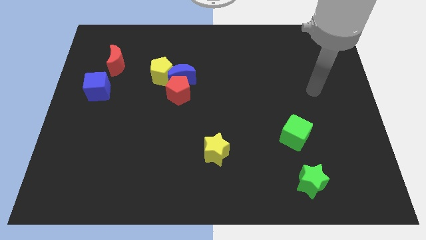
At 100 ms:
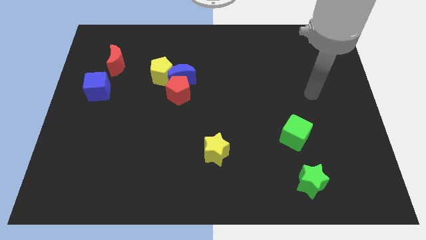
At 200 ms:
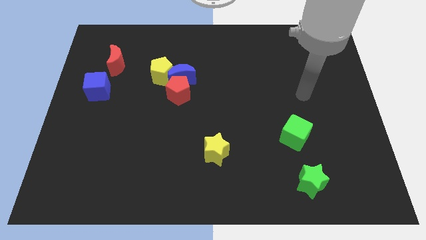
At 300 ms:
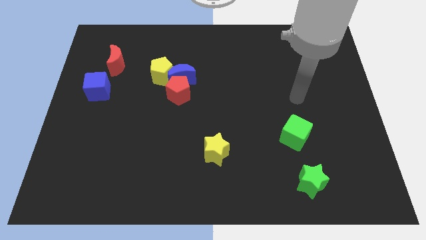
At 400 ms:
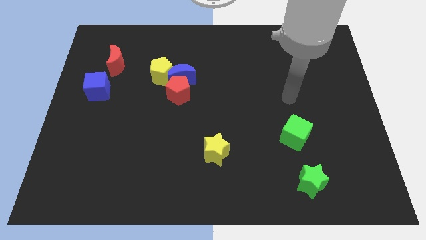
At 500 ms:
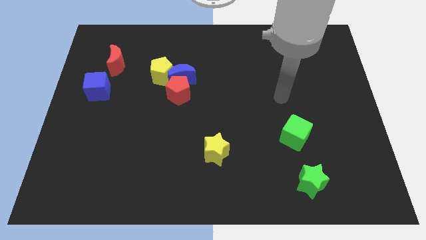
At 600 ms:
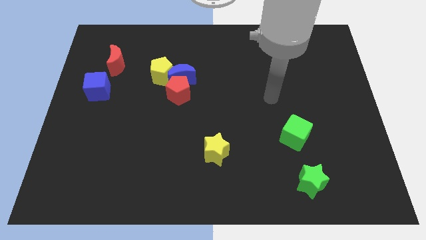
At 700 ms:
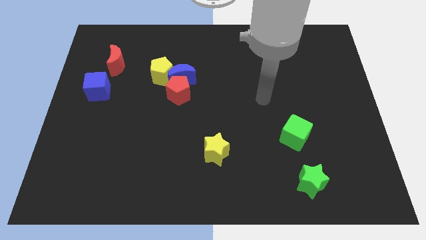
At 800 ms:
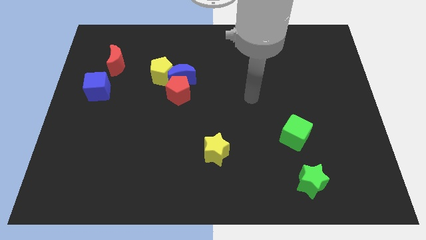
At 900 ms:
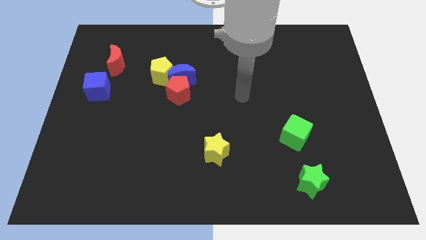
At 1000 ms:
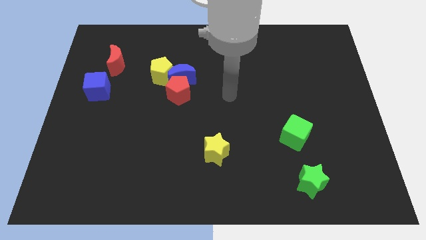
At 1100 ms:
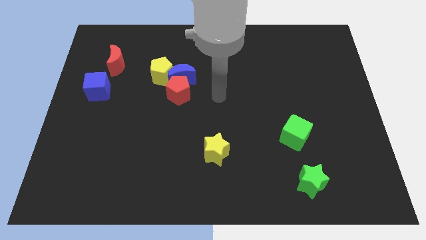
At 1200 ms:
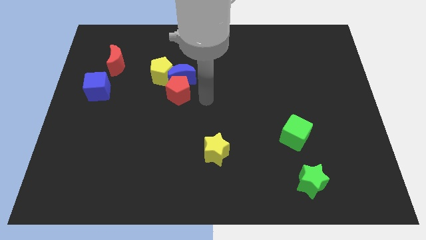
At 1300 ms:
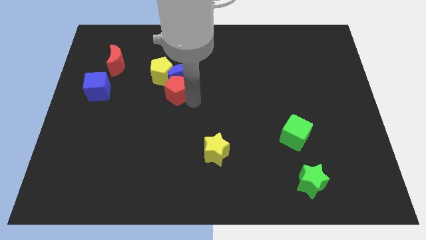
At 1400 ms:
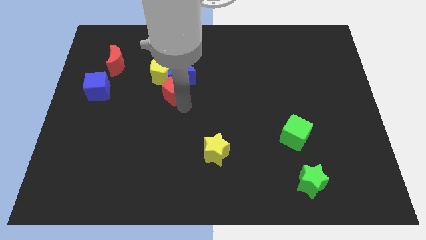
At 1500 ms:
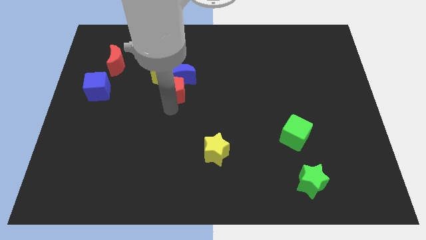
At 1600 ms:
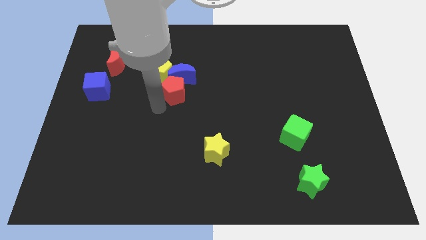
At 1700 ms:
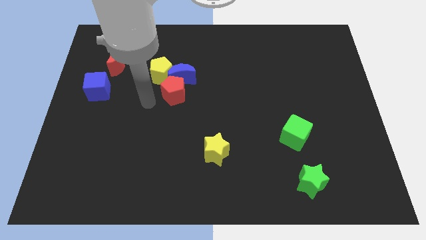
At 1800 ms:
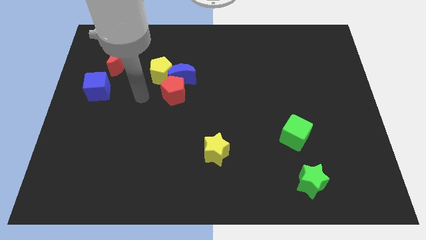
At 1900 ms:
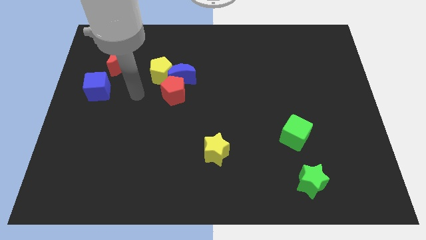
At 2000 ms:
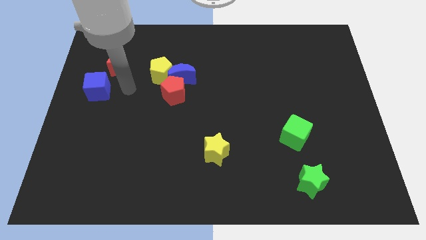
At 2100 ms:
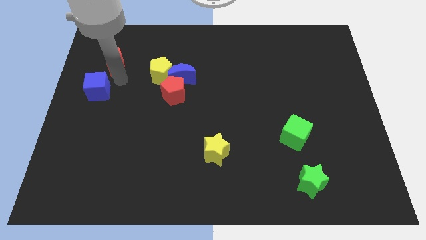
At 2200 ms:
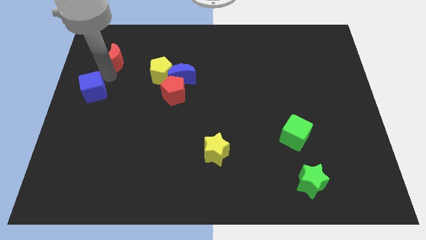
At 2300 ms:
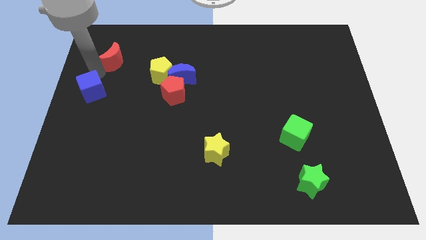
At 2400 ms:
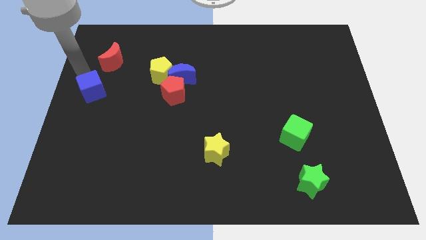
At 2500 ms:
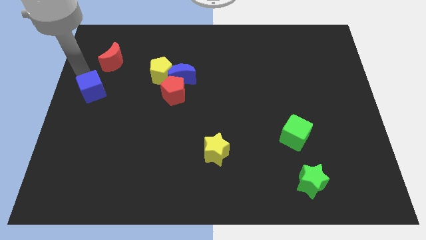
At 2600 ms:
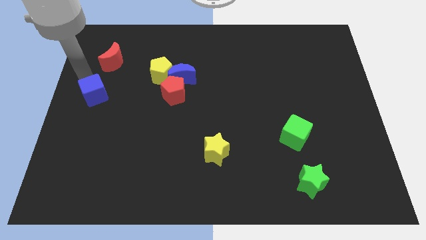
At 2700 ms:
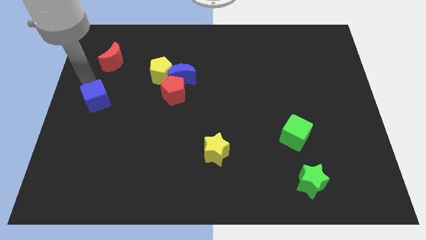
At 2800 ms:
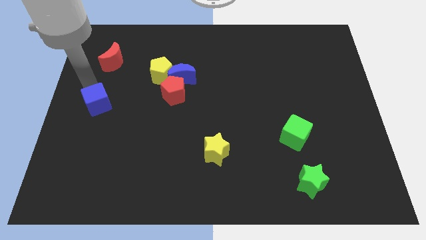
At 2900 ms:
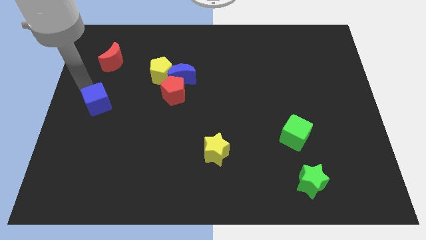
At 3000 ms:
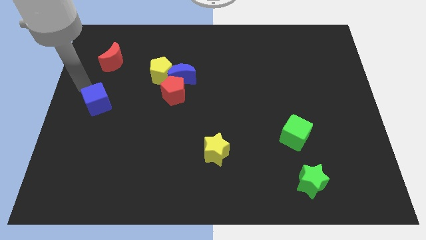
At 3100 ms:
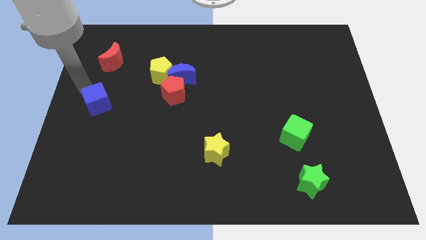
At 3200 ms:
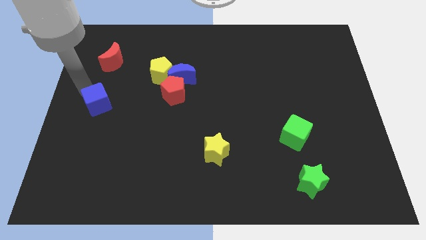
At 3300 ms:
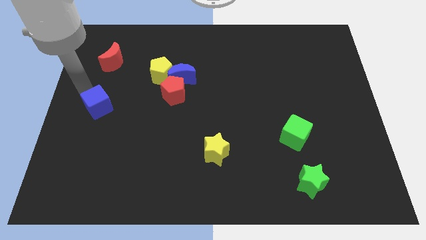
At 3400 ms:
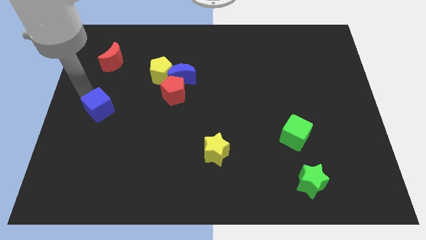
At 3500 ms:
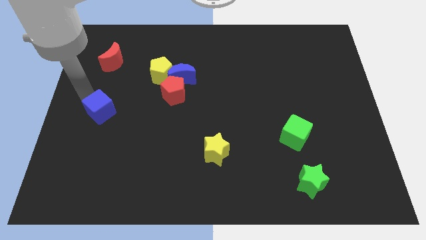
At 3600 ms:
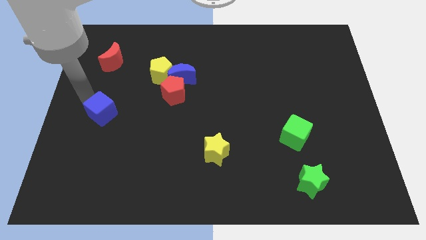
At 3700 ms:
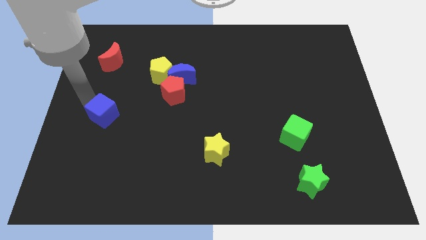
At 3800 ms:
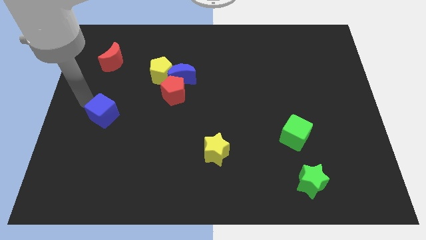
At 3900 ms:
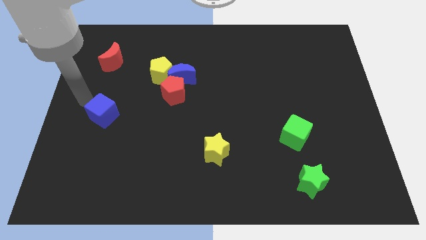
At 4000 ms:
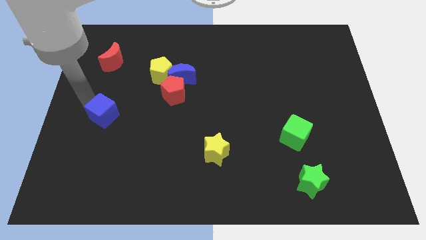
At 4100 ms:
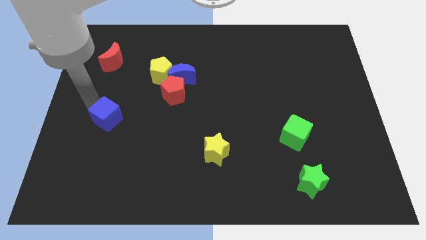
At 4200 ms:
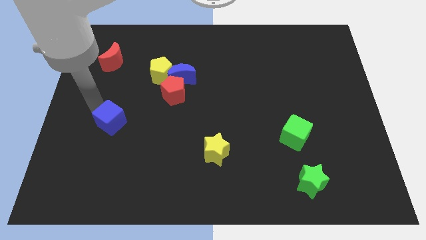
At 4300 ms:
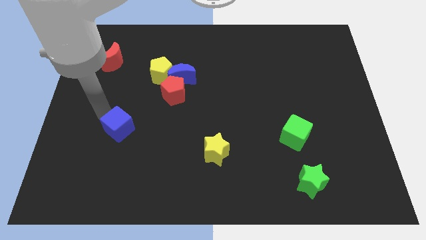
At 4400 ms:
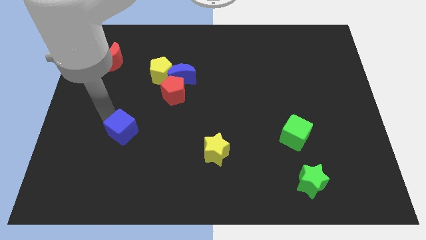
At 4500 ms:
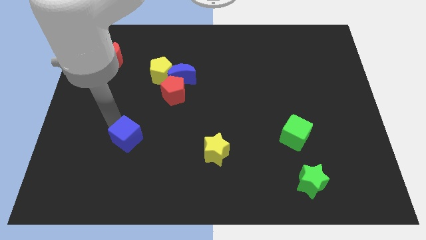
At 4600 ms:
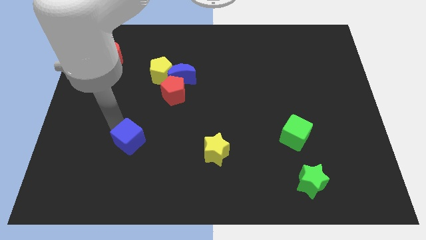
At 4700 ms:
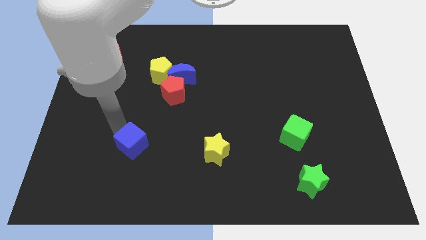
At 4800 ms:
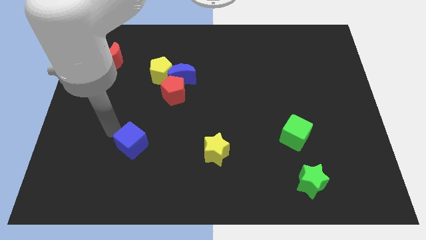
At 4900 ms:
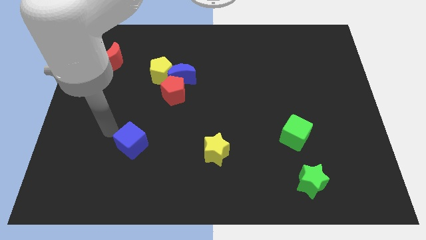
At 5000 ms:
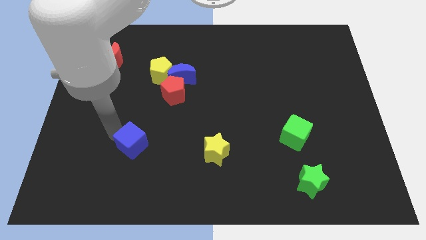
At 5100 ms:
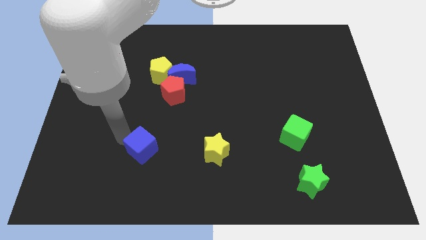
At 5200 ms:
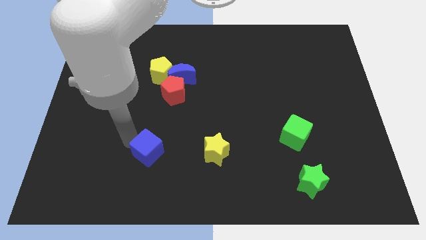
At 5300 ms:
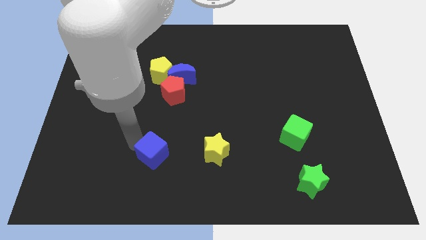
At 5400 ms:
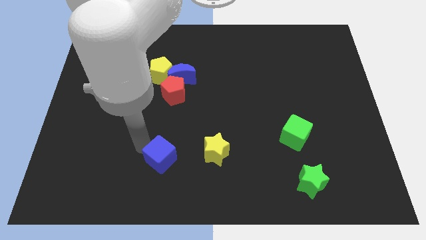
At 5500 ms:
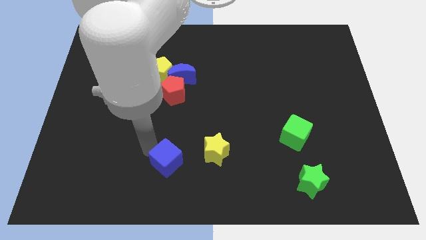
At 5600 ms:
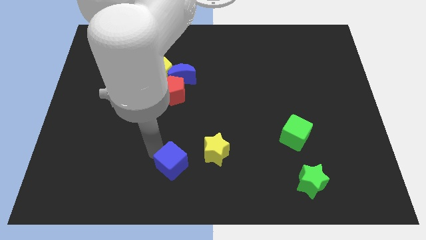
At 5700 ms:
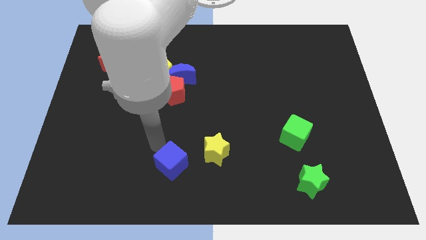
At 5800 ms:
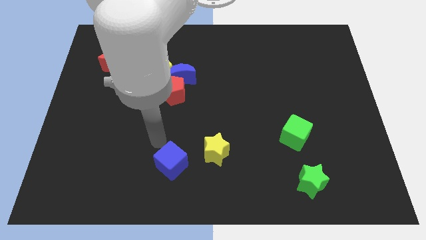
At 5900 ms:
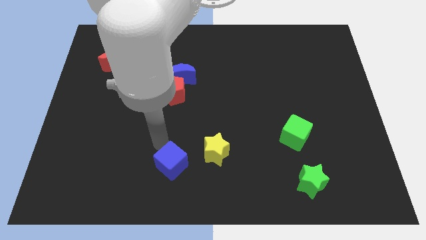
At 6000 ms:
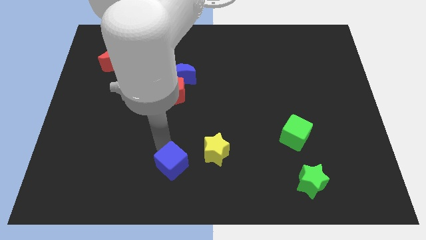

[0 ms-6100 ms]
slide the blue cube to the bottom side
